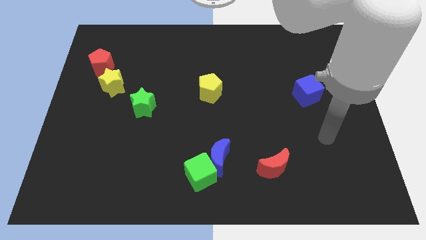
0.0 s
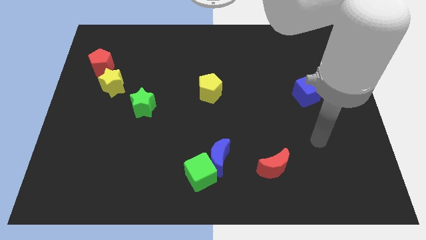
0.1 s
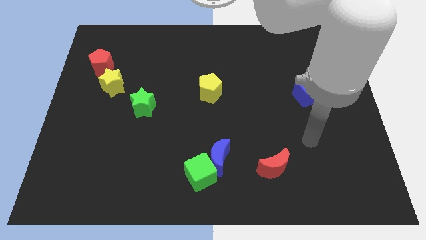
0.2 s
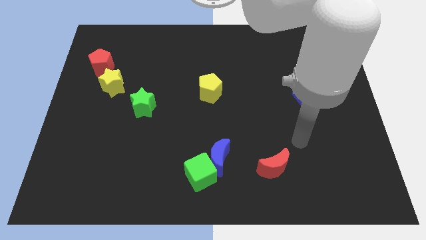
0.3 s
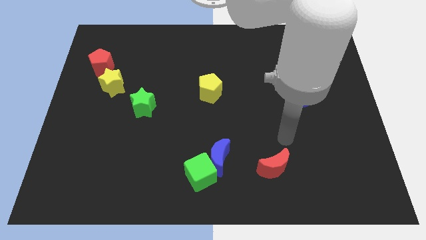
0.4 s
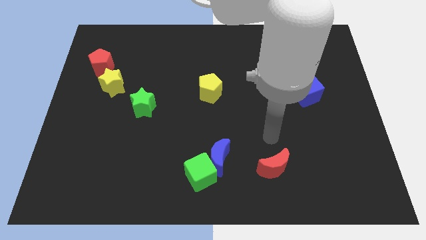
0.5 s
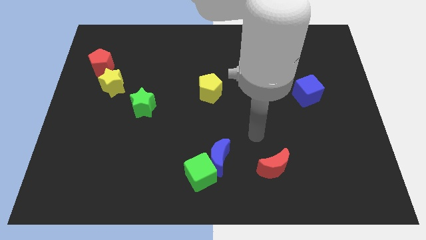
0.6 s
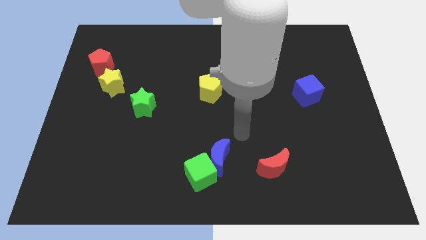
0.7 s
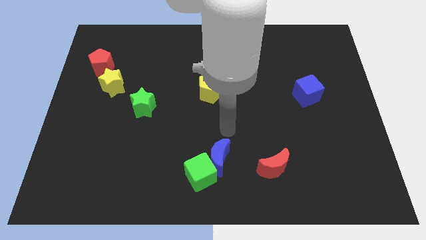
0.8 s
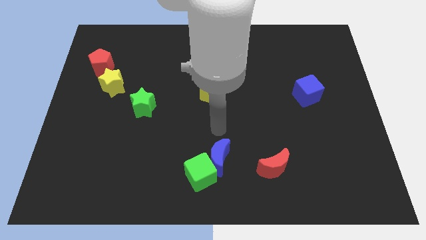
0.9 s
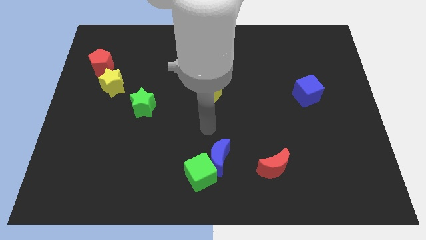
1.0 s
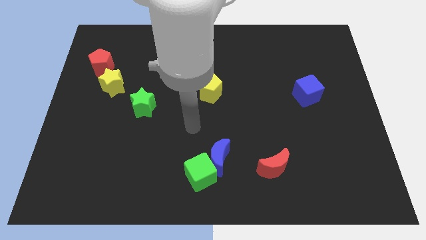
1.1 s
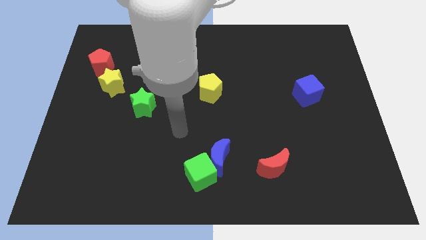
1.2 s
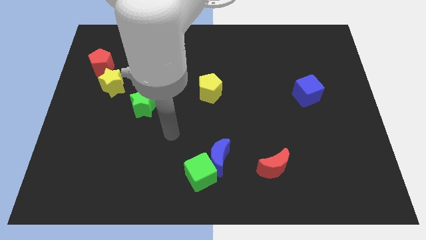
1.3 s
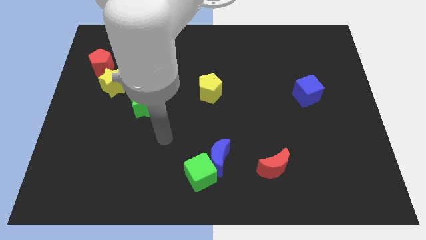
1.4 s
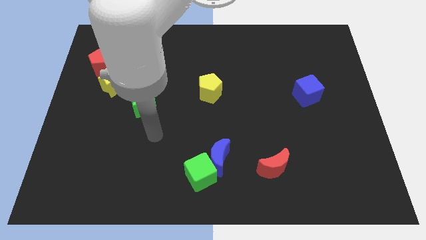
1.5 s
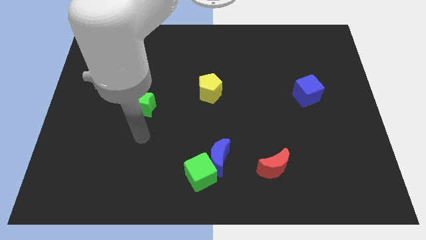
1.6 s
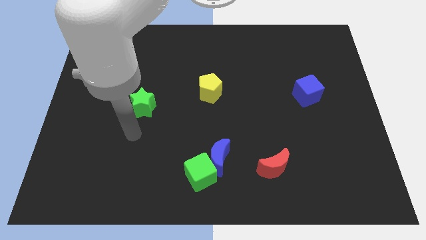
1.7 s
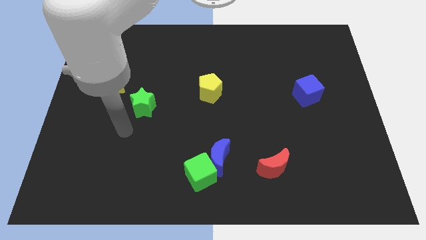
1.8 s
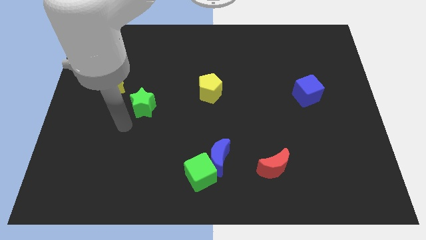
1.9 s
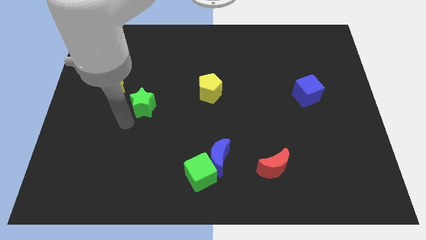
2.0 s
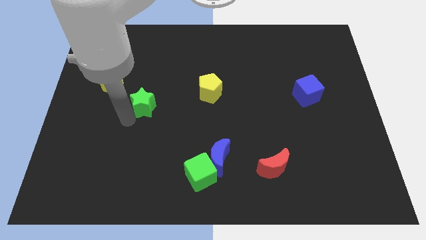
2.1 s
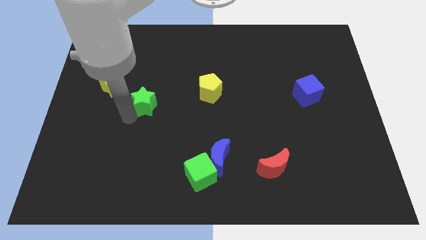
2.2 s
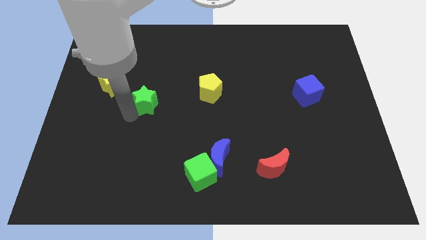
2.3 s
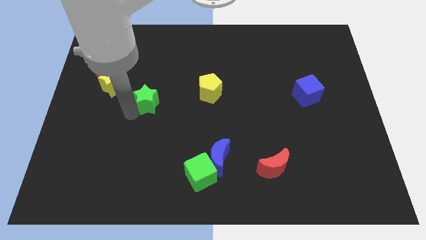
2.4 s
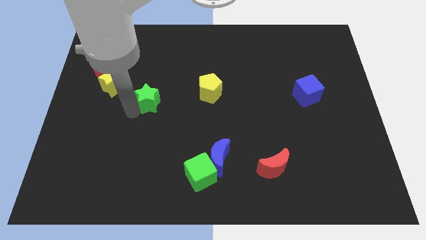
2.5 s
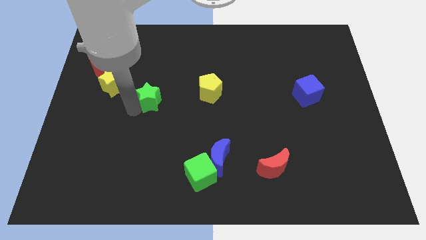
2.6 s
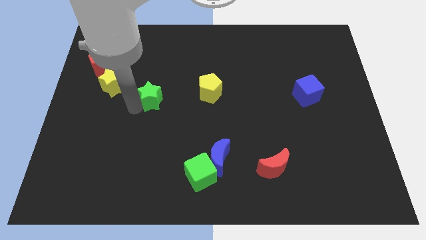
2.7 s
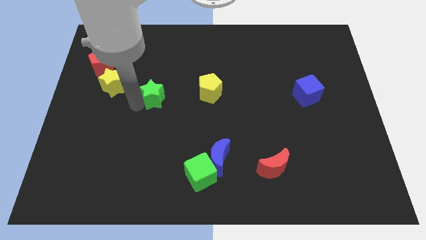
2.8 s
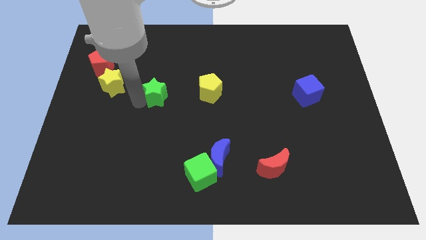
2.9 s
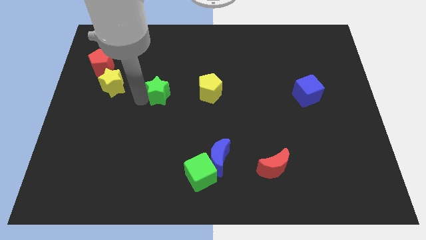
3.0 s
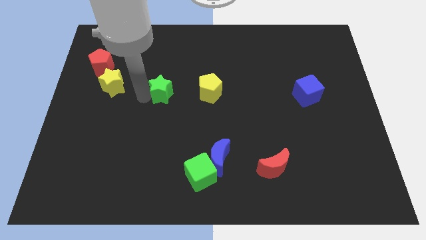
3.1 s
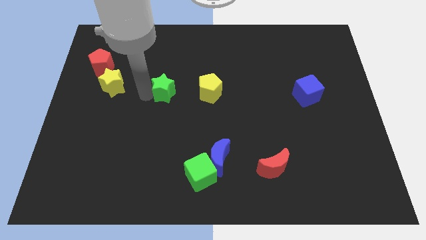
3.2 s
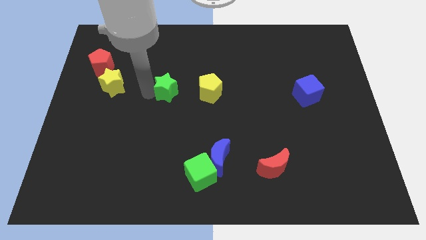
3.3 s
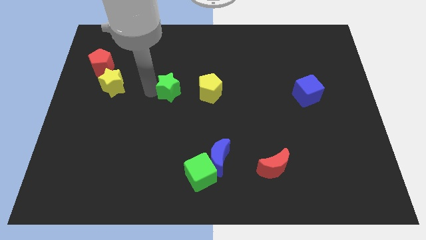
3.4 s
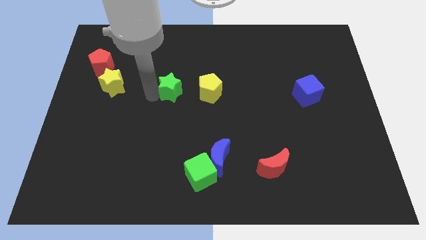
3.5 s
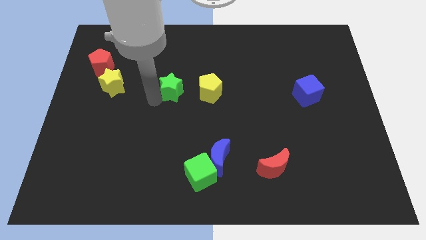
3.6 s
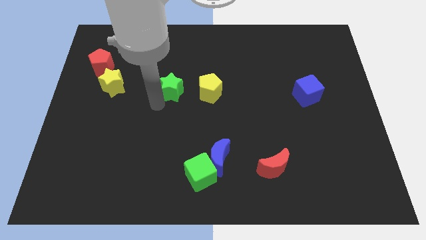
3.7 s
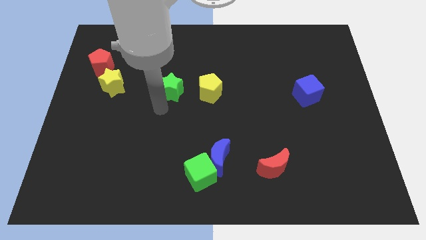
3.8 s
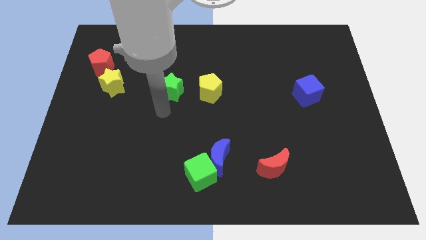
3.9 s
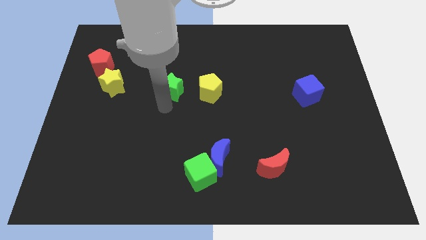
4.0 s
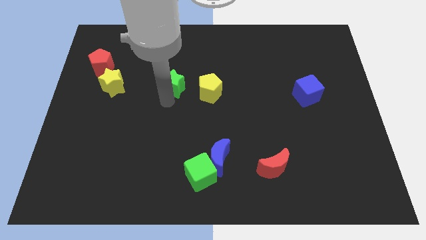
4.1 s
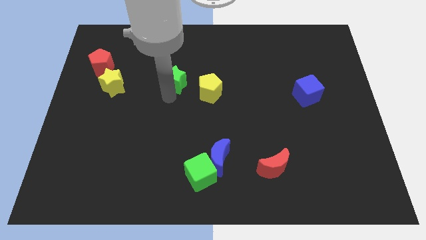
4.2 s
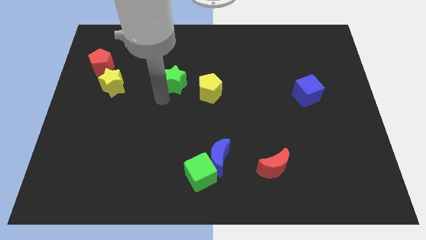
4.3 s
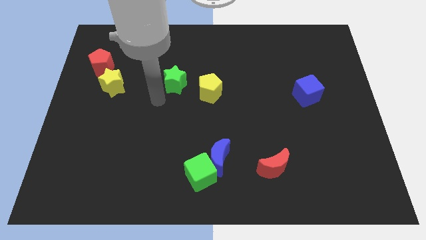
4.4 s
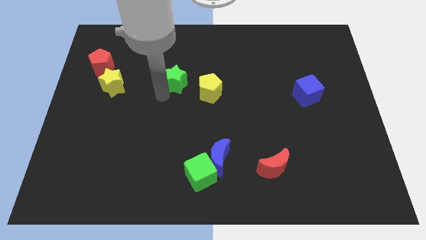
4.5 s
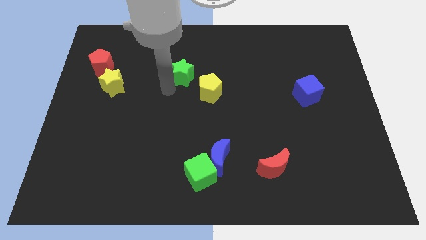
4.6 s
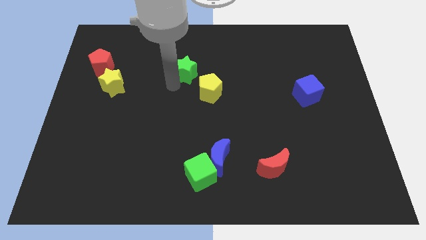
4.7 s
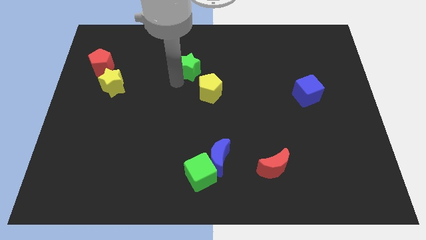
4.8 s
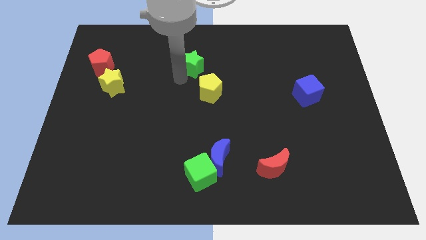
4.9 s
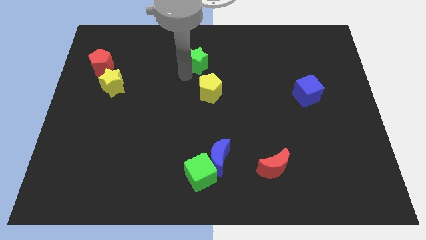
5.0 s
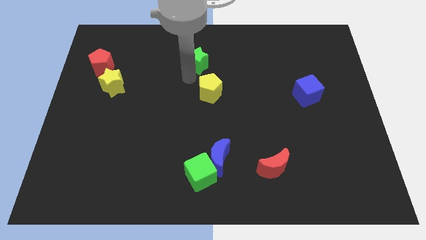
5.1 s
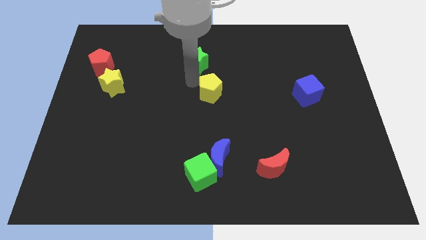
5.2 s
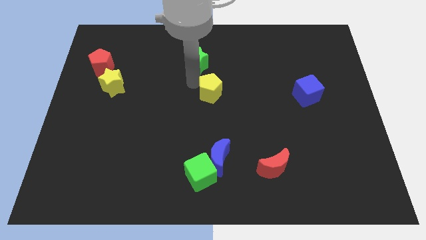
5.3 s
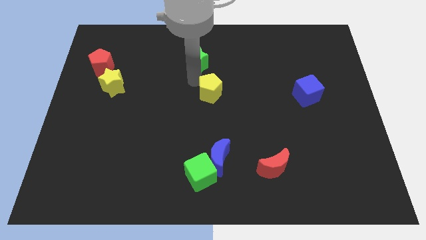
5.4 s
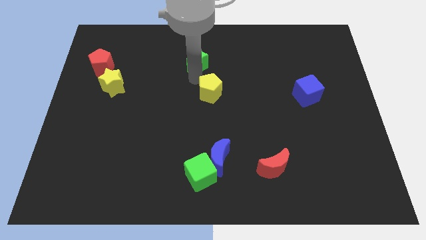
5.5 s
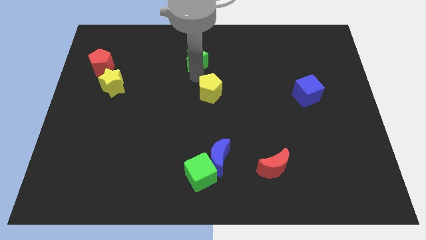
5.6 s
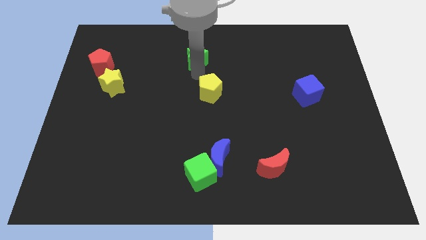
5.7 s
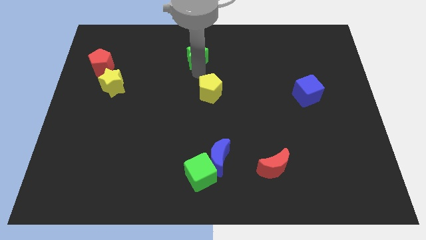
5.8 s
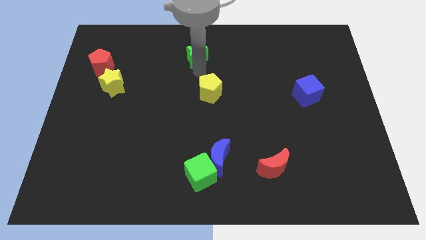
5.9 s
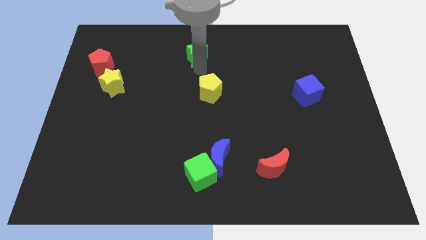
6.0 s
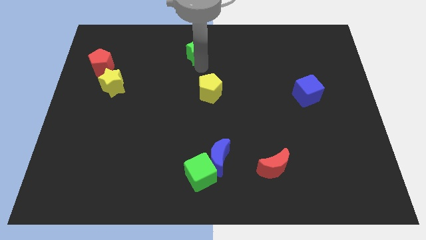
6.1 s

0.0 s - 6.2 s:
put the green star to the top

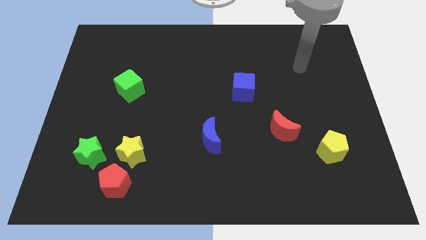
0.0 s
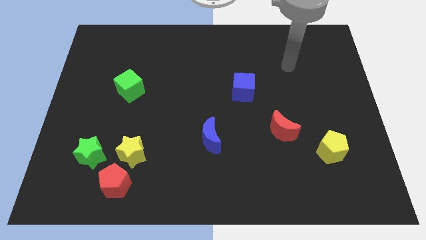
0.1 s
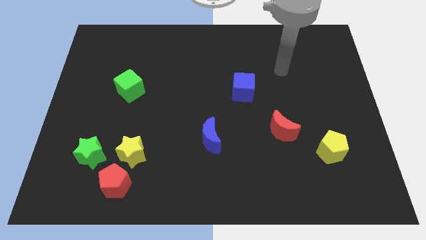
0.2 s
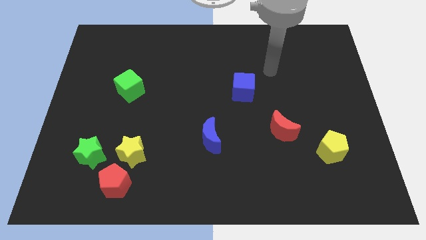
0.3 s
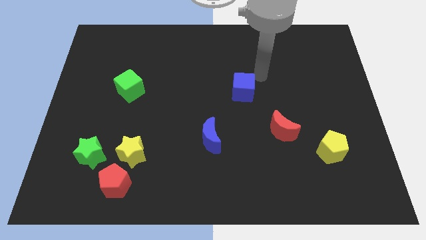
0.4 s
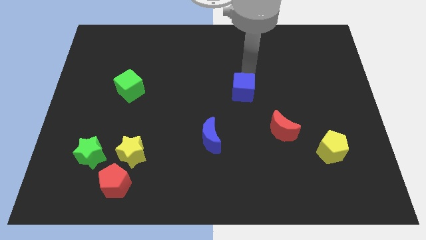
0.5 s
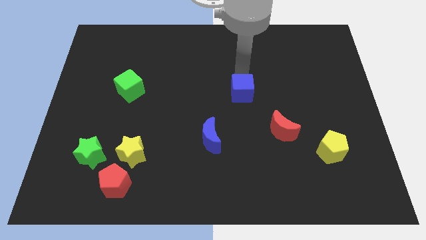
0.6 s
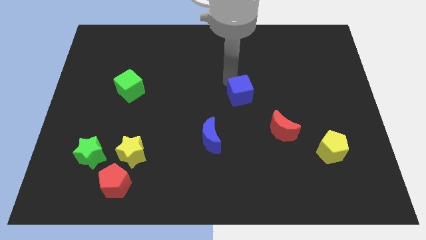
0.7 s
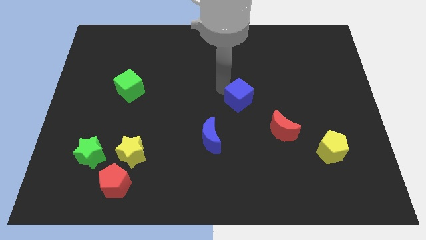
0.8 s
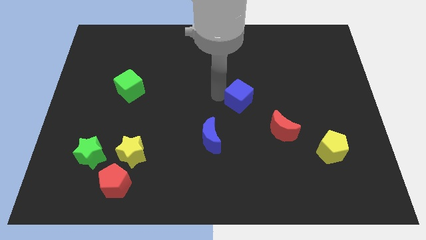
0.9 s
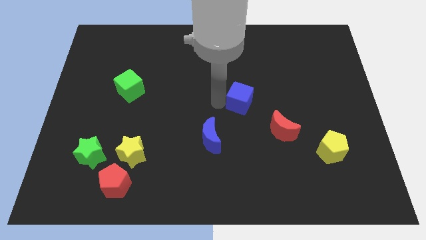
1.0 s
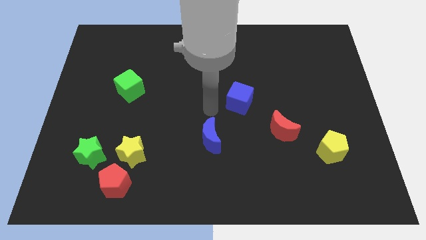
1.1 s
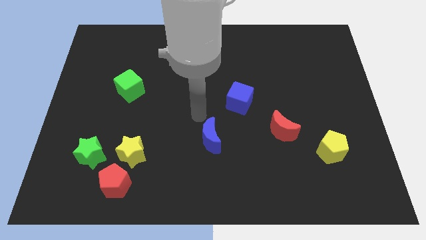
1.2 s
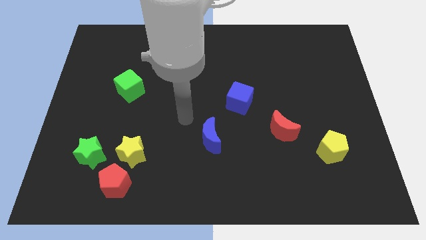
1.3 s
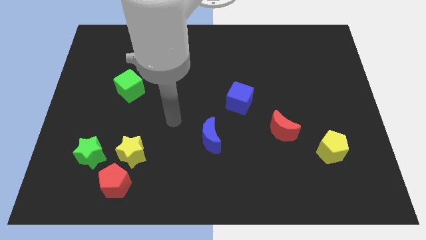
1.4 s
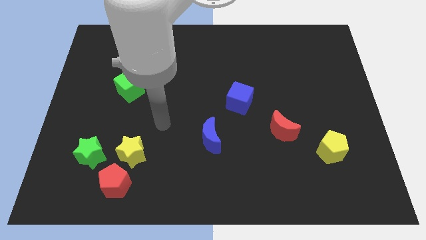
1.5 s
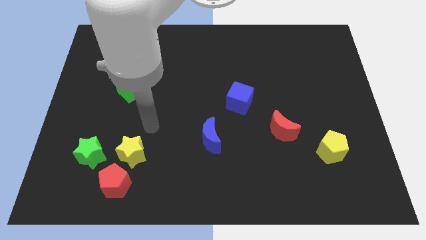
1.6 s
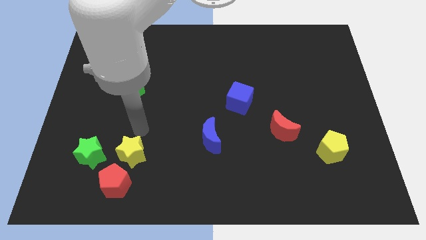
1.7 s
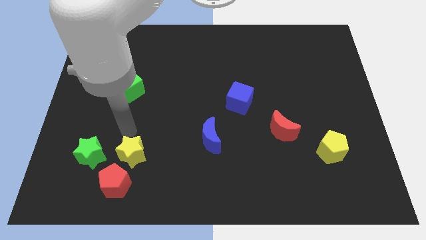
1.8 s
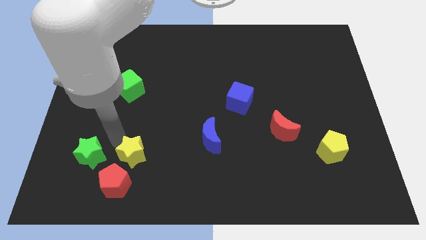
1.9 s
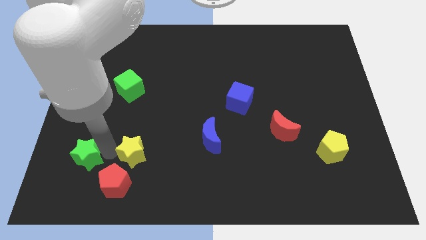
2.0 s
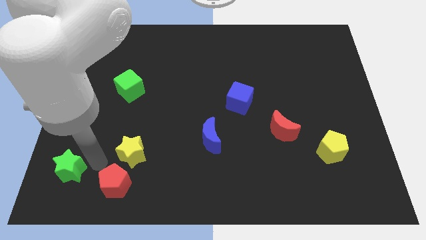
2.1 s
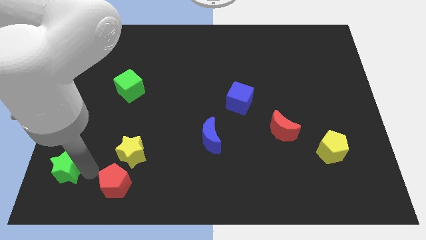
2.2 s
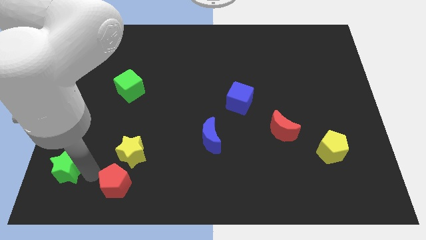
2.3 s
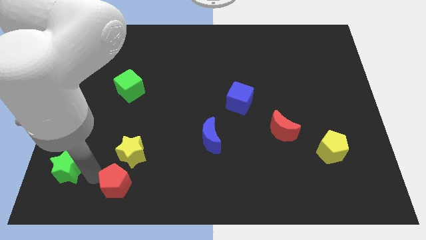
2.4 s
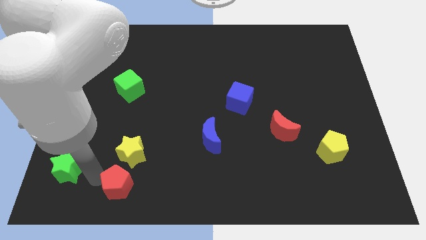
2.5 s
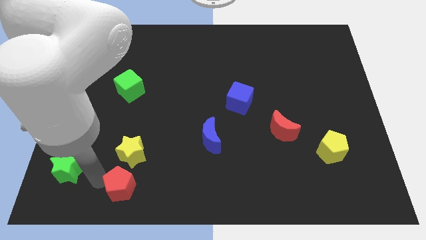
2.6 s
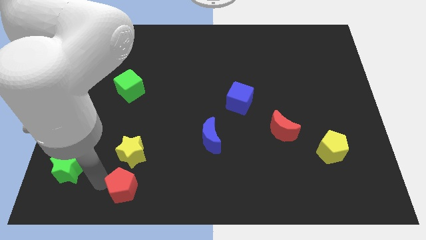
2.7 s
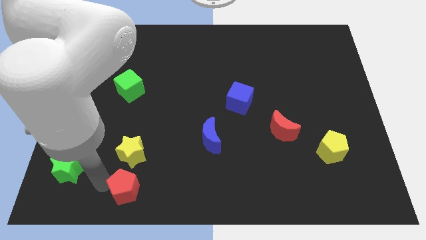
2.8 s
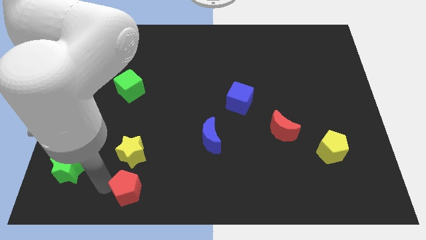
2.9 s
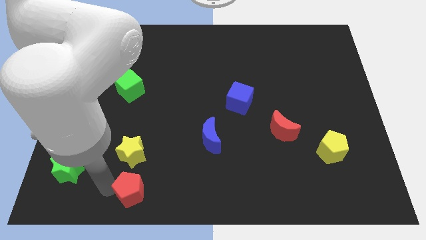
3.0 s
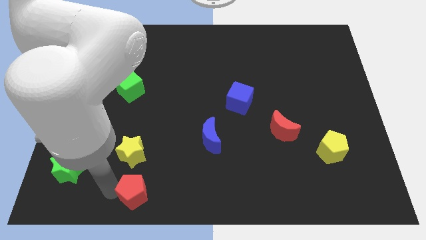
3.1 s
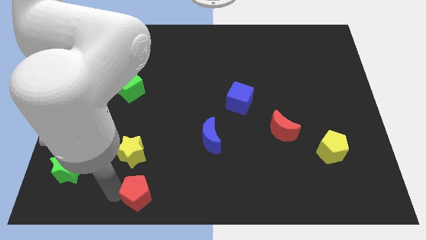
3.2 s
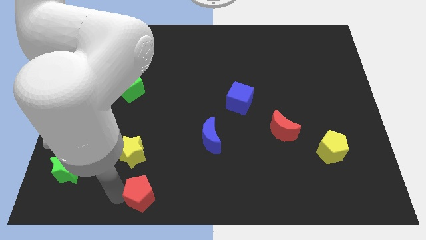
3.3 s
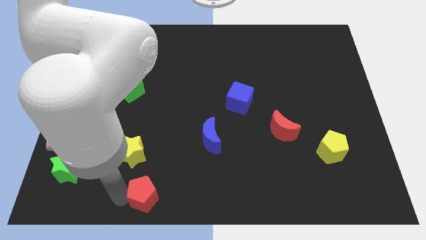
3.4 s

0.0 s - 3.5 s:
put the red pentagon to the bottom side
